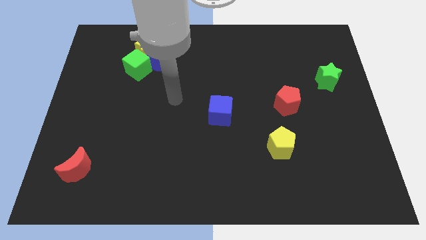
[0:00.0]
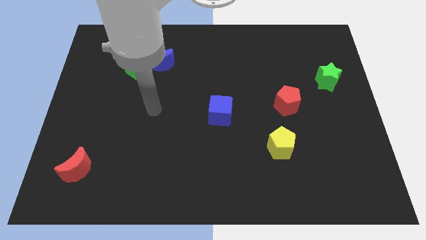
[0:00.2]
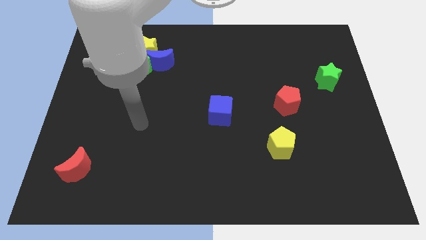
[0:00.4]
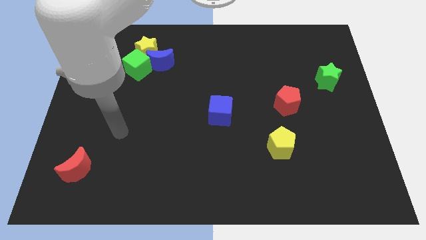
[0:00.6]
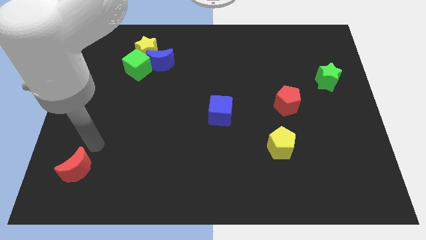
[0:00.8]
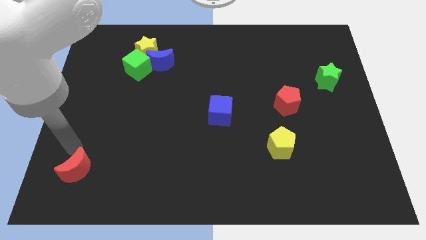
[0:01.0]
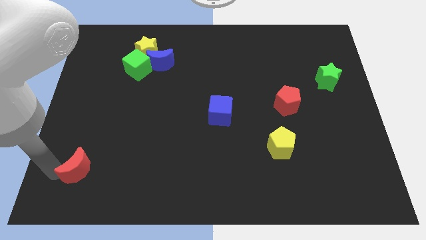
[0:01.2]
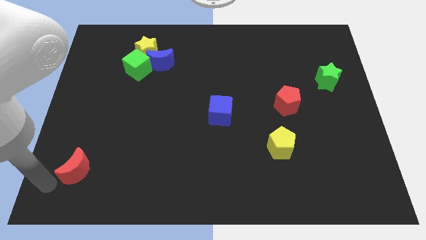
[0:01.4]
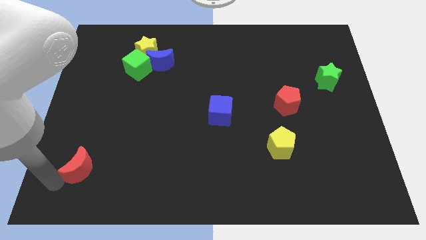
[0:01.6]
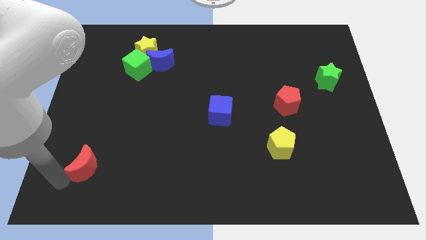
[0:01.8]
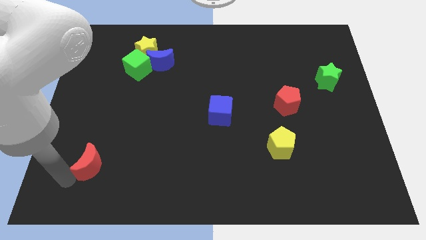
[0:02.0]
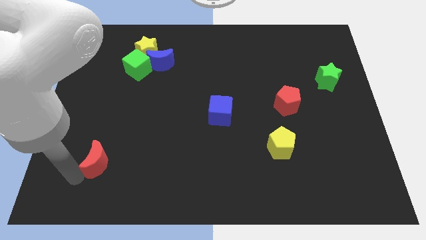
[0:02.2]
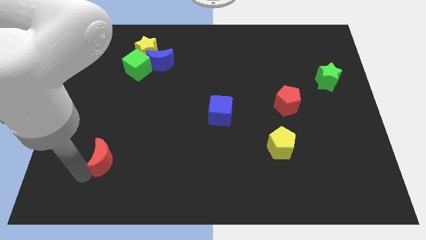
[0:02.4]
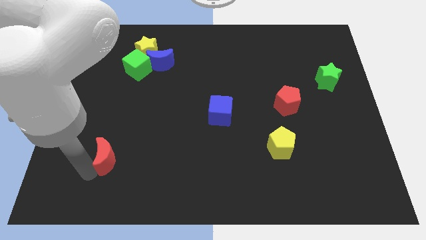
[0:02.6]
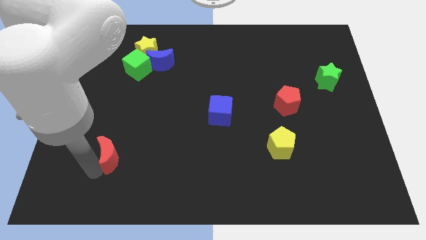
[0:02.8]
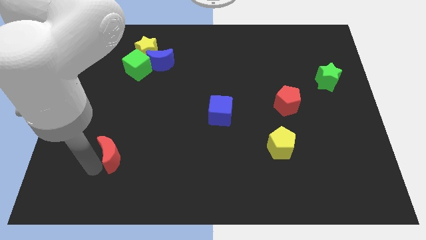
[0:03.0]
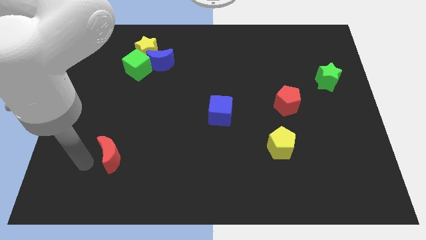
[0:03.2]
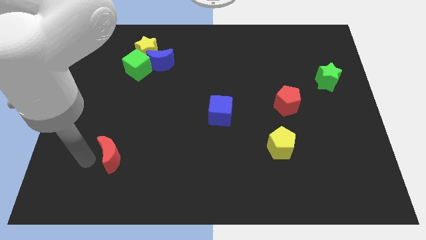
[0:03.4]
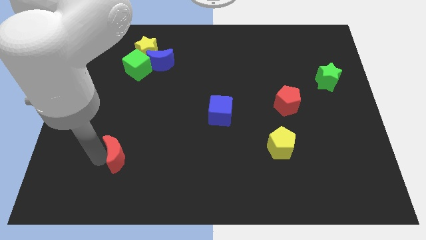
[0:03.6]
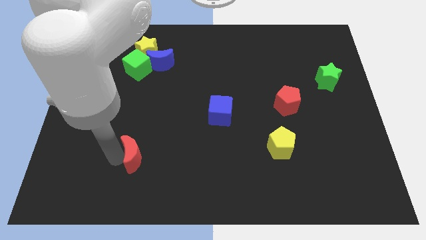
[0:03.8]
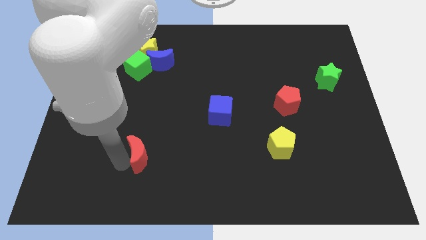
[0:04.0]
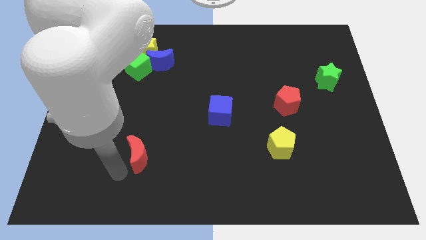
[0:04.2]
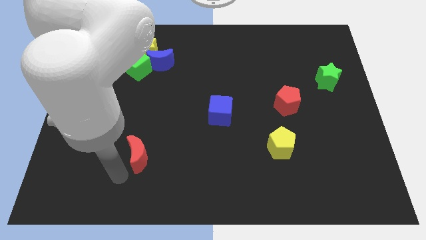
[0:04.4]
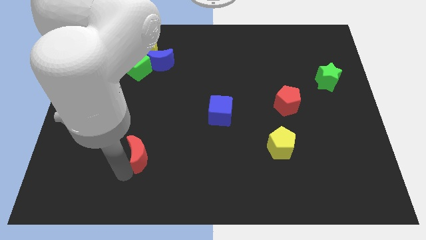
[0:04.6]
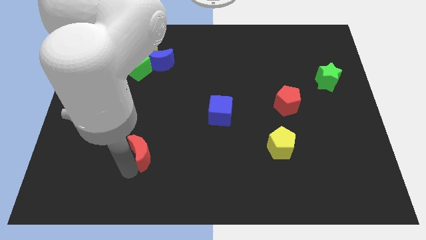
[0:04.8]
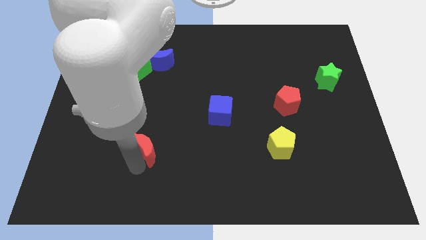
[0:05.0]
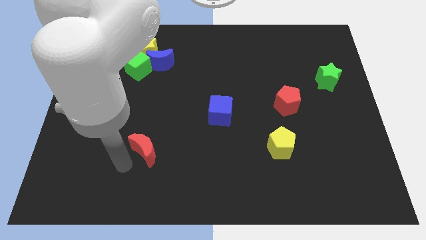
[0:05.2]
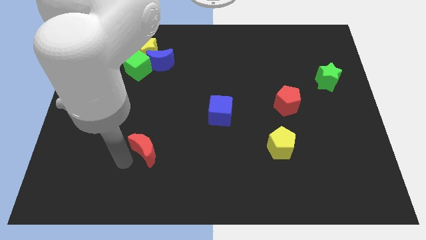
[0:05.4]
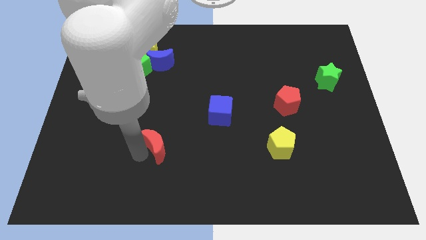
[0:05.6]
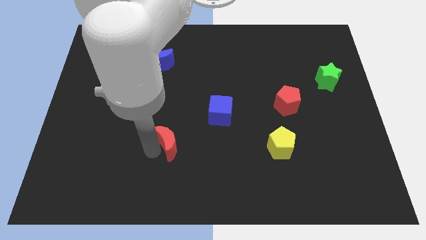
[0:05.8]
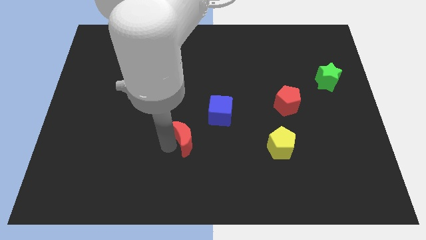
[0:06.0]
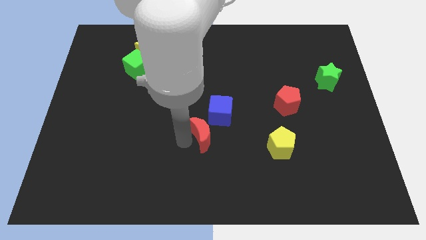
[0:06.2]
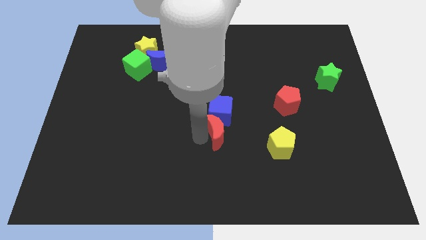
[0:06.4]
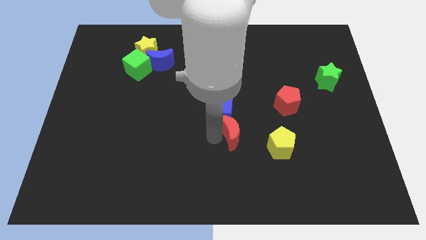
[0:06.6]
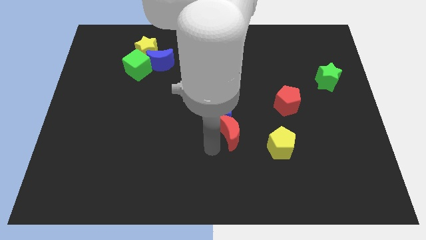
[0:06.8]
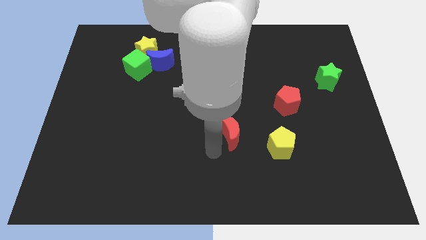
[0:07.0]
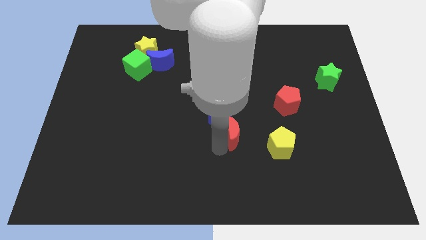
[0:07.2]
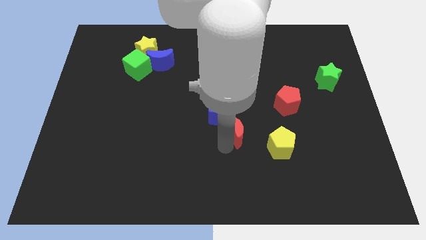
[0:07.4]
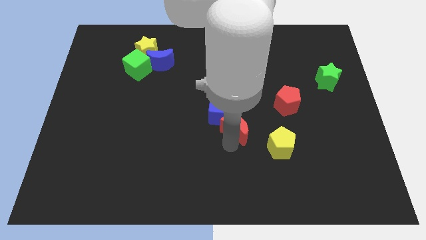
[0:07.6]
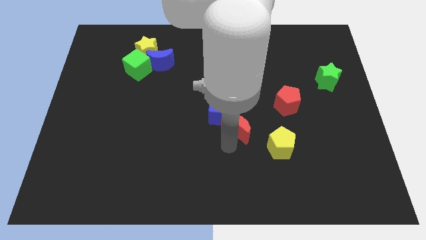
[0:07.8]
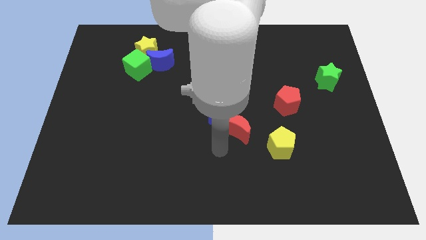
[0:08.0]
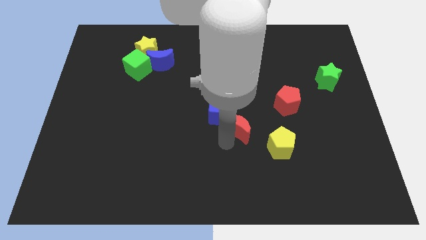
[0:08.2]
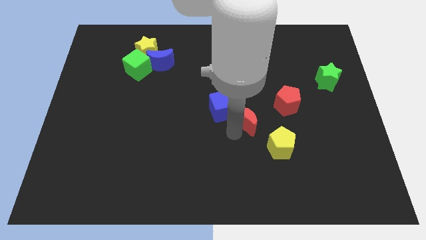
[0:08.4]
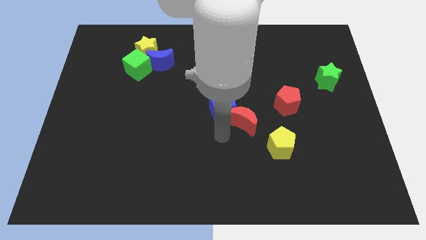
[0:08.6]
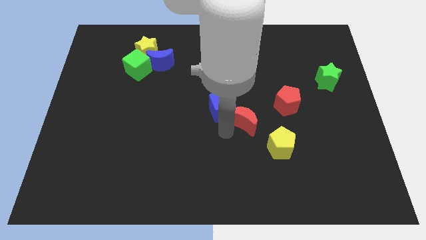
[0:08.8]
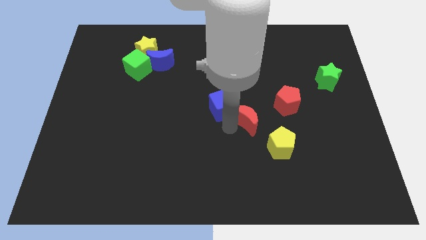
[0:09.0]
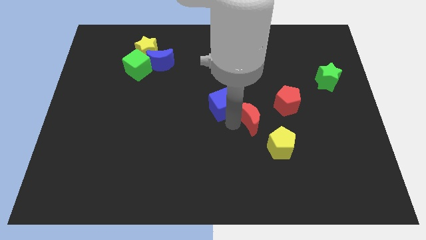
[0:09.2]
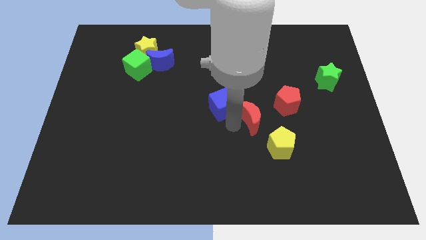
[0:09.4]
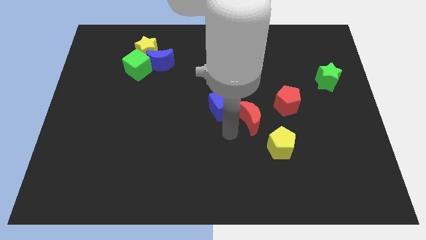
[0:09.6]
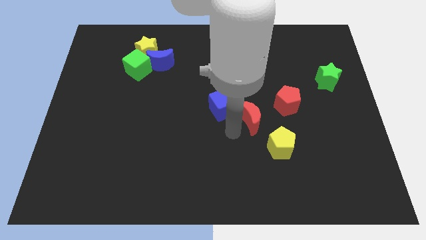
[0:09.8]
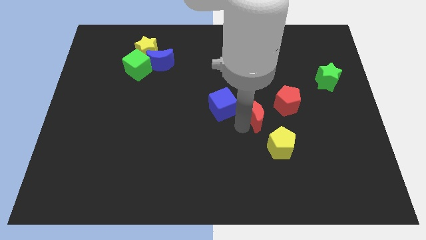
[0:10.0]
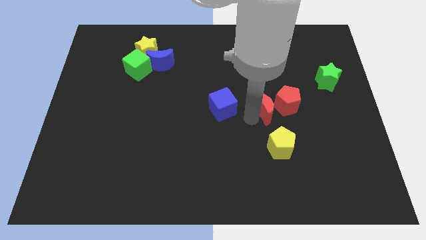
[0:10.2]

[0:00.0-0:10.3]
move the red moon towards the red pentagon

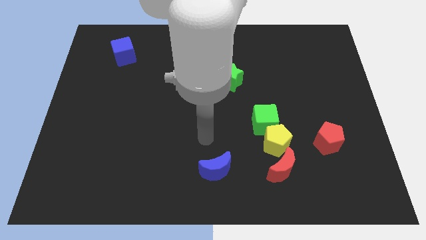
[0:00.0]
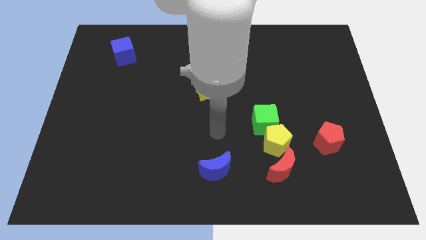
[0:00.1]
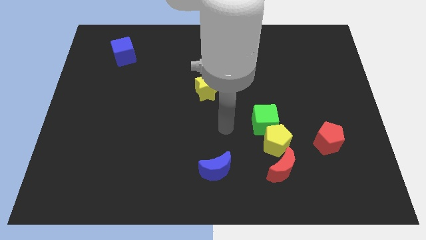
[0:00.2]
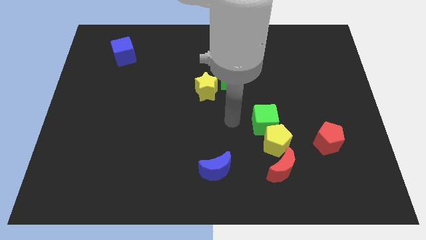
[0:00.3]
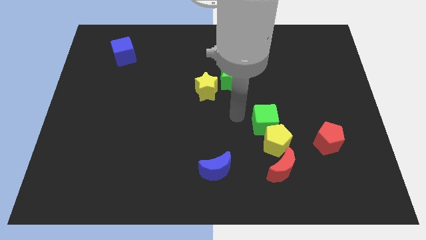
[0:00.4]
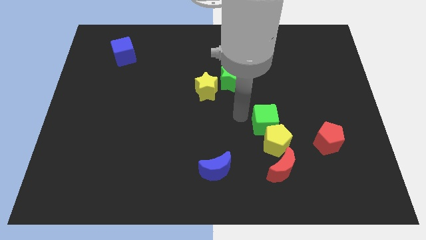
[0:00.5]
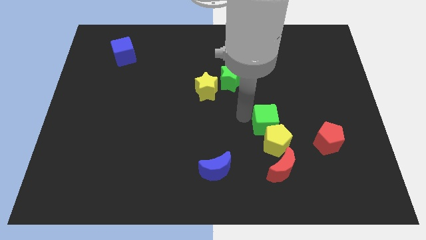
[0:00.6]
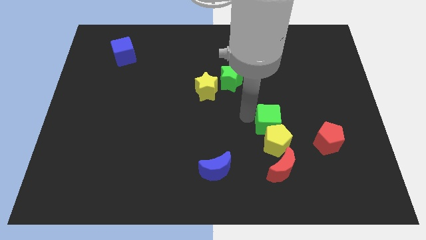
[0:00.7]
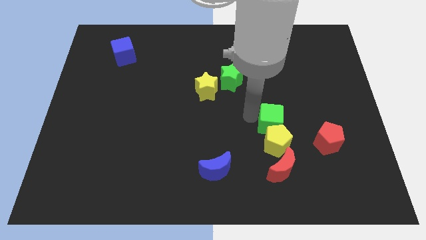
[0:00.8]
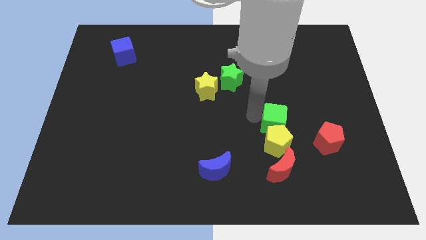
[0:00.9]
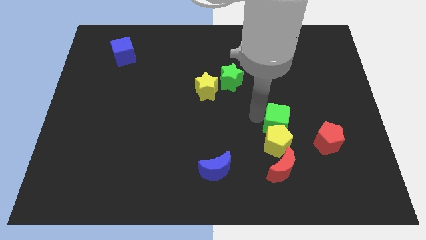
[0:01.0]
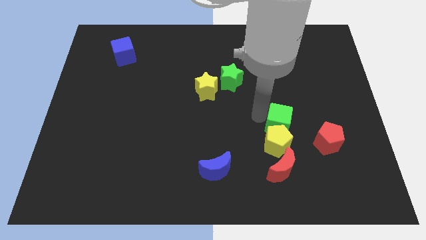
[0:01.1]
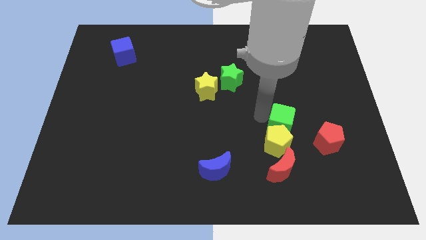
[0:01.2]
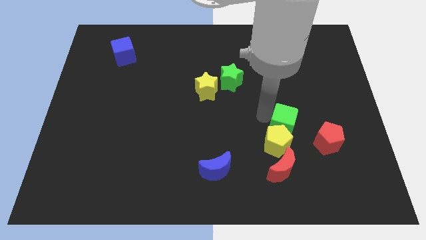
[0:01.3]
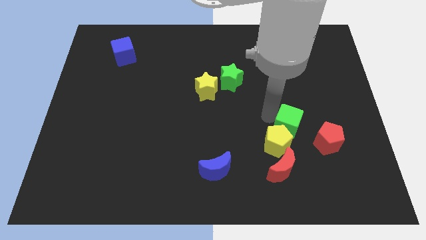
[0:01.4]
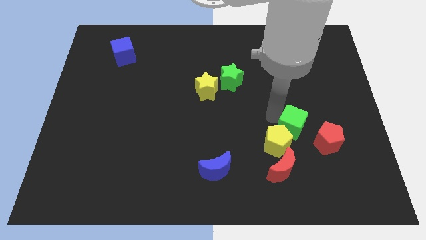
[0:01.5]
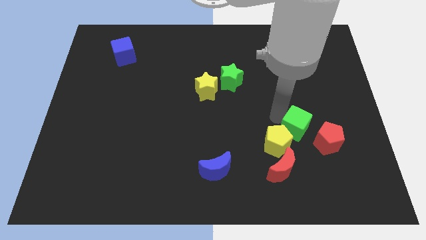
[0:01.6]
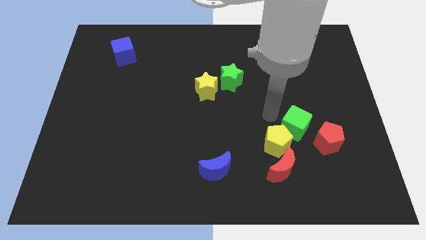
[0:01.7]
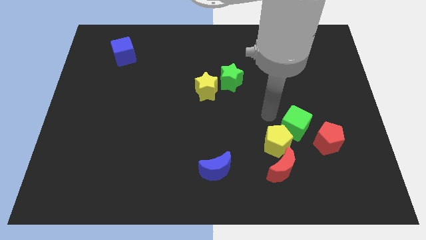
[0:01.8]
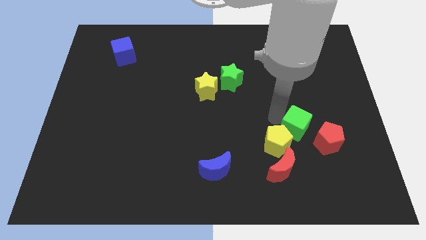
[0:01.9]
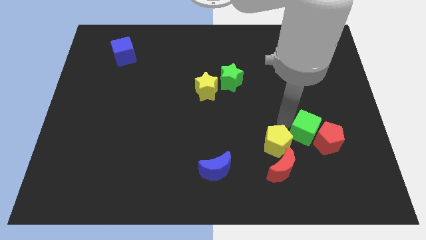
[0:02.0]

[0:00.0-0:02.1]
push the green cube close to the red pentagon
